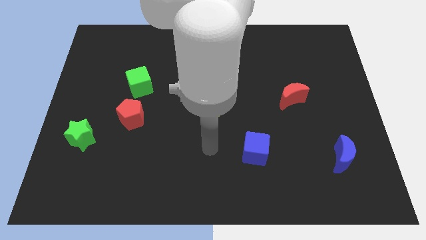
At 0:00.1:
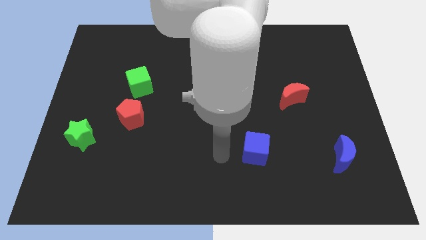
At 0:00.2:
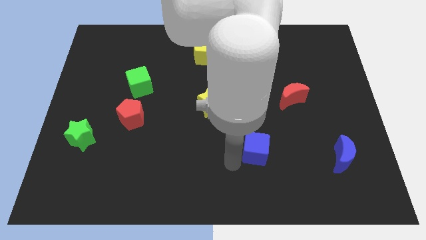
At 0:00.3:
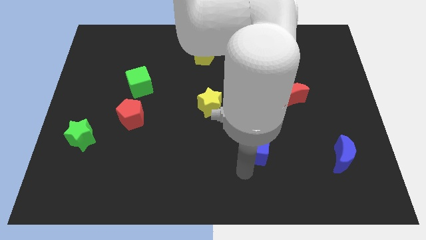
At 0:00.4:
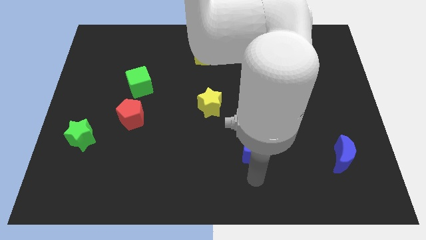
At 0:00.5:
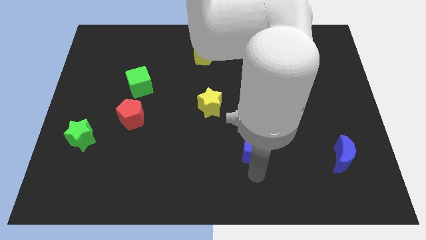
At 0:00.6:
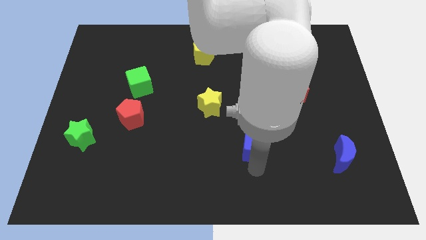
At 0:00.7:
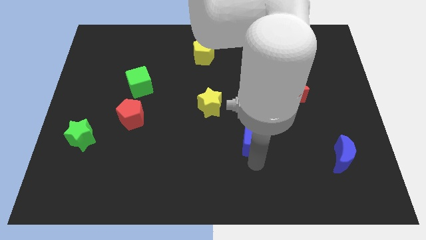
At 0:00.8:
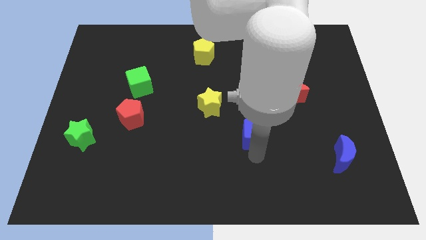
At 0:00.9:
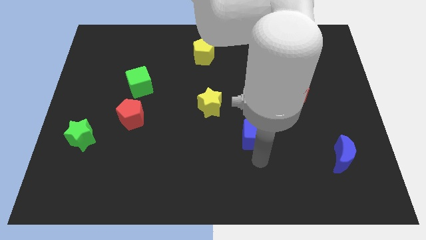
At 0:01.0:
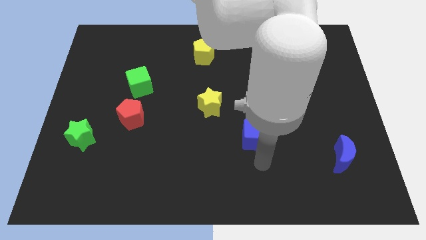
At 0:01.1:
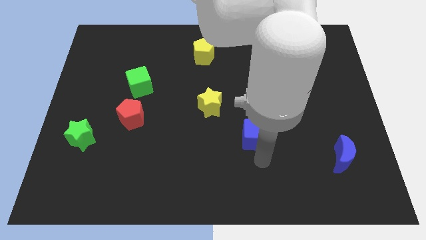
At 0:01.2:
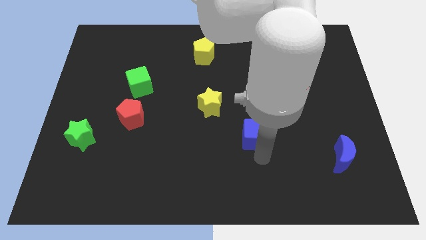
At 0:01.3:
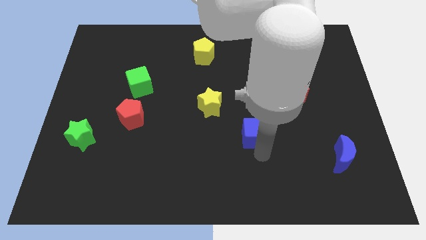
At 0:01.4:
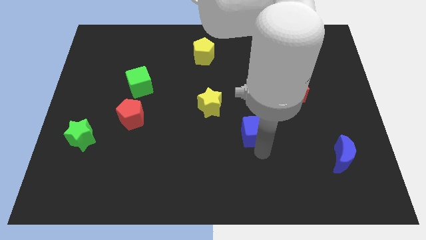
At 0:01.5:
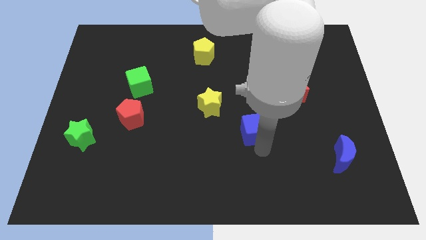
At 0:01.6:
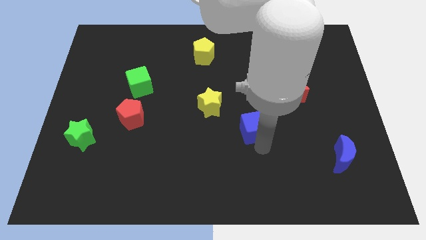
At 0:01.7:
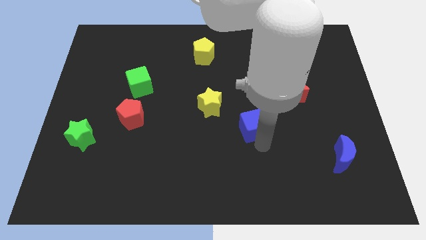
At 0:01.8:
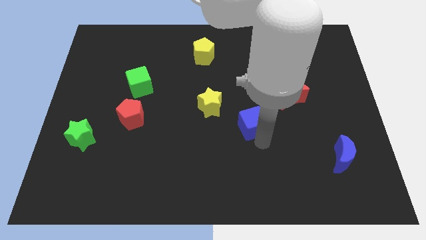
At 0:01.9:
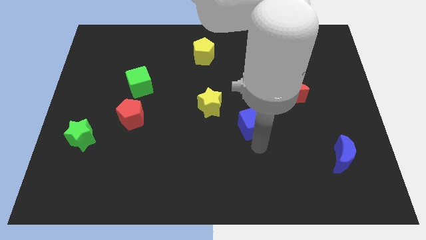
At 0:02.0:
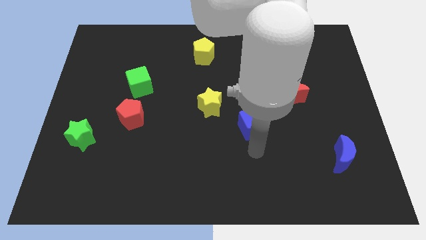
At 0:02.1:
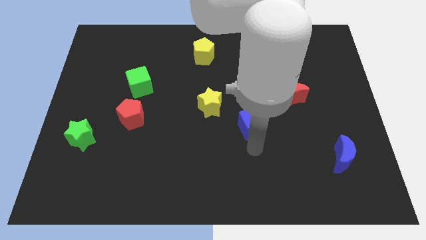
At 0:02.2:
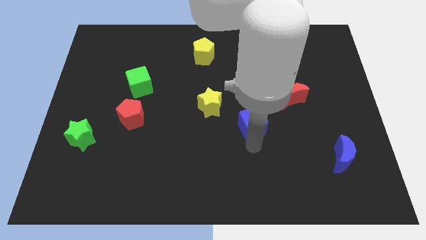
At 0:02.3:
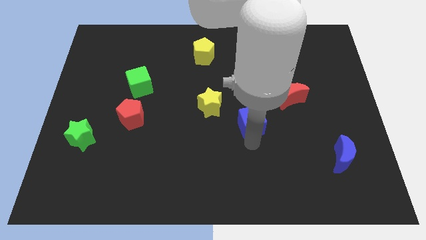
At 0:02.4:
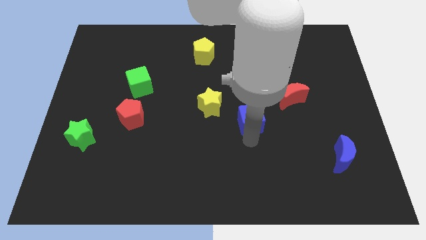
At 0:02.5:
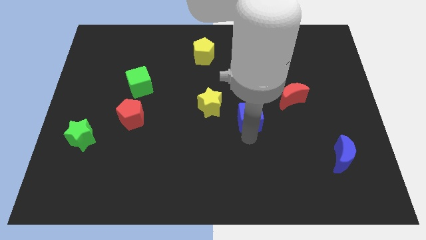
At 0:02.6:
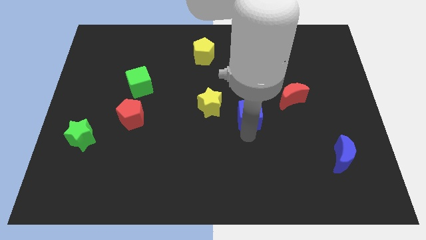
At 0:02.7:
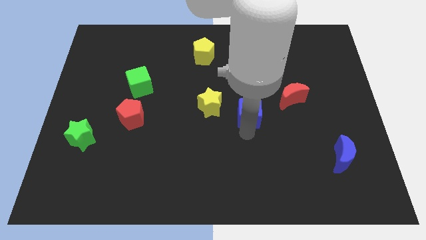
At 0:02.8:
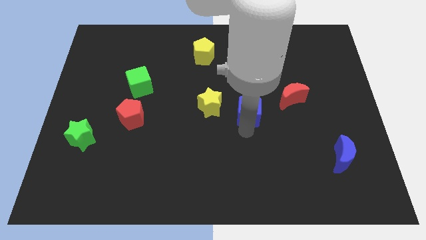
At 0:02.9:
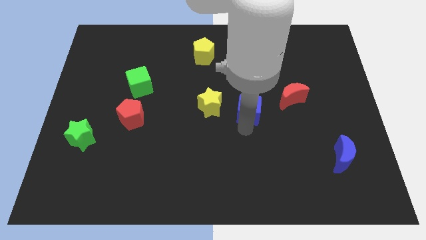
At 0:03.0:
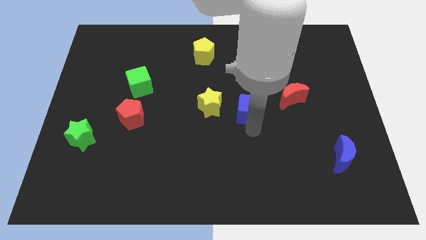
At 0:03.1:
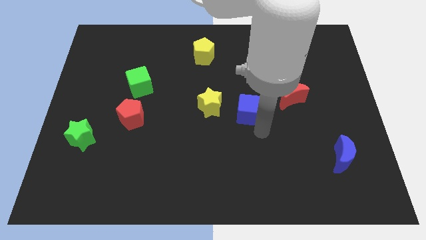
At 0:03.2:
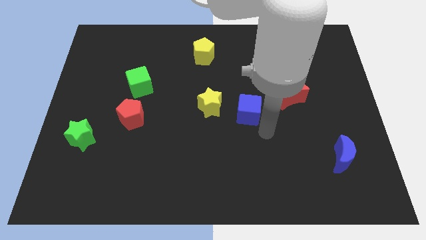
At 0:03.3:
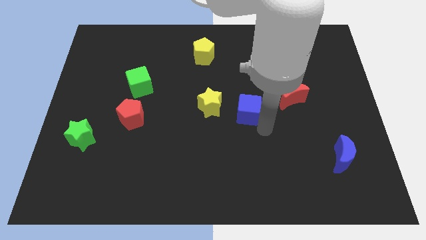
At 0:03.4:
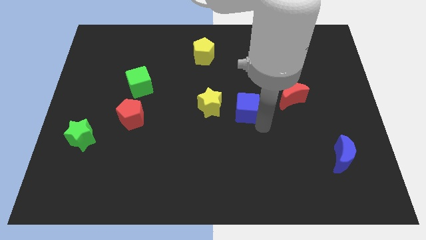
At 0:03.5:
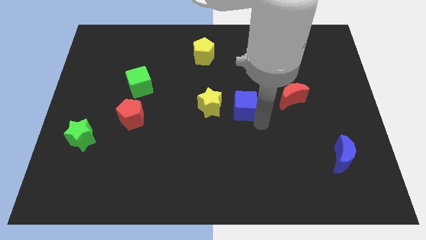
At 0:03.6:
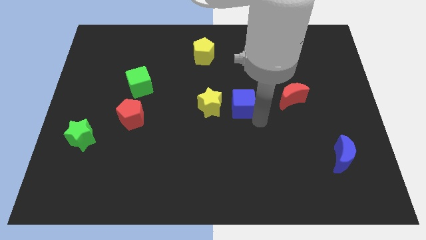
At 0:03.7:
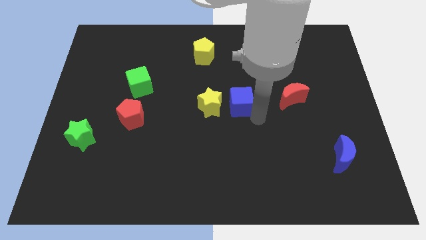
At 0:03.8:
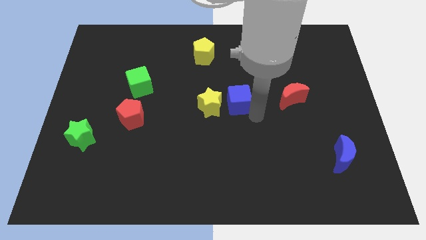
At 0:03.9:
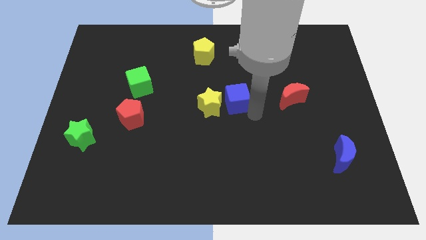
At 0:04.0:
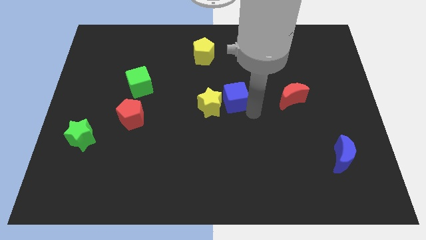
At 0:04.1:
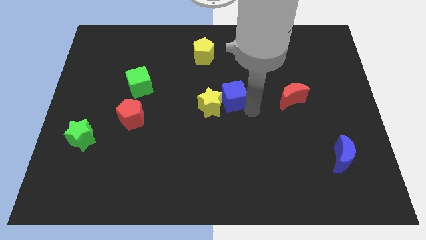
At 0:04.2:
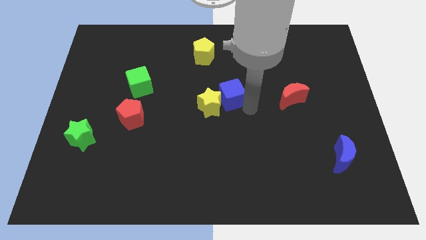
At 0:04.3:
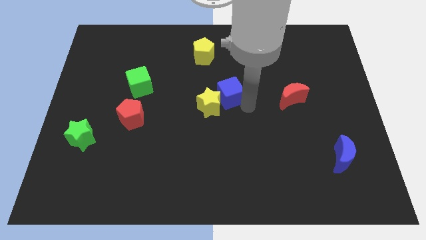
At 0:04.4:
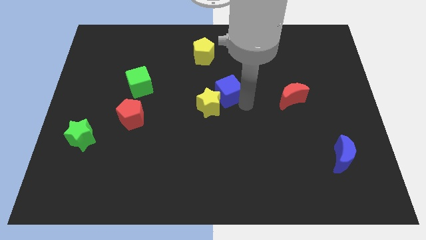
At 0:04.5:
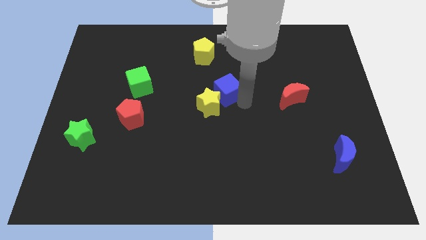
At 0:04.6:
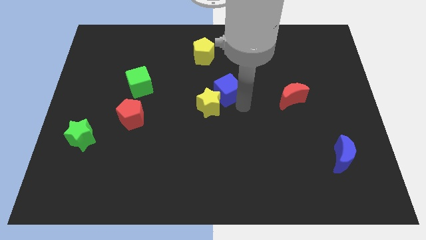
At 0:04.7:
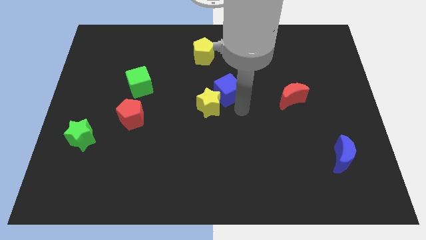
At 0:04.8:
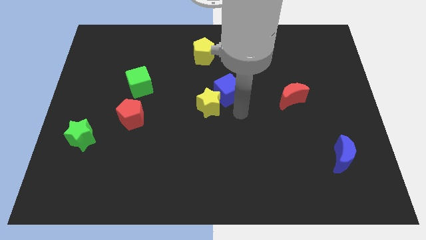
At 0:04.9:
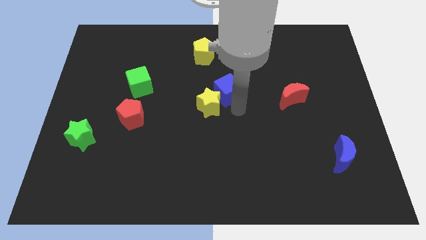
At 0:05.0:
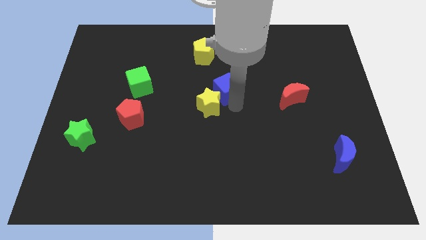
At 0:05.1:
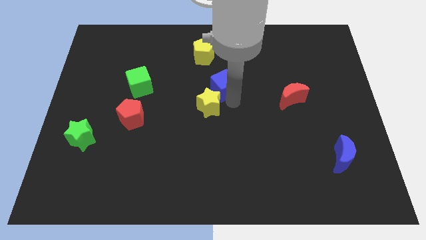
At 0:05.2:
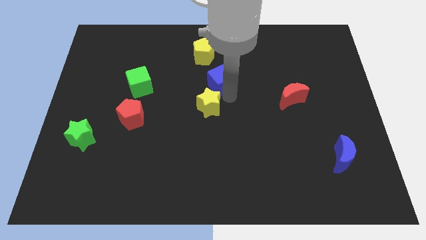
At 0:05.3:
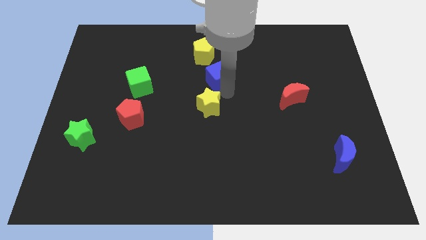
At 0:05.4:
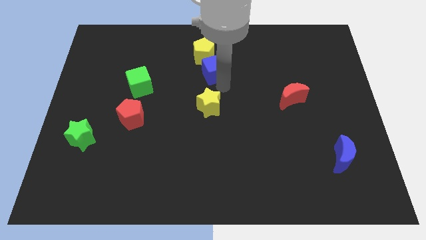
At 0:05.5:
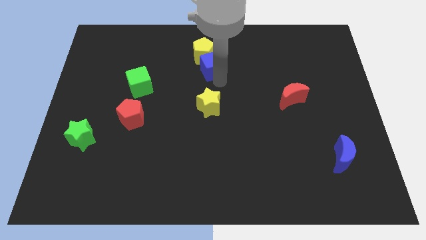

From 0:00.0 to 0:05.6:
push the blue cube towards the yellow pentagon

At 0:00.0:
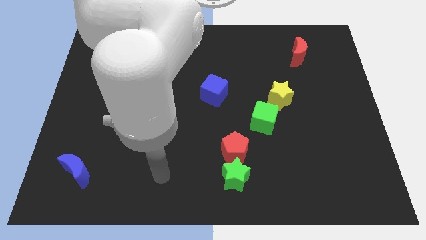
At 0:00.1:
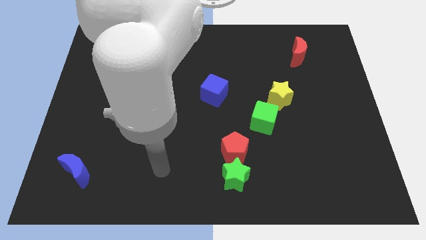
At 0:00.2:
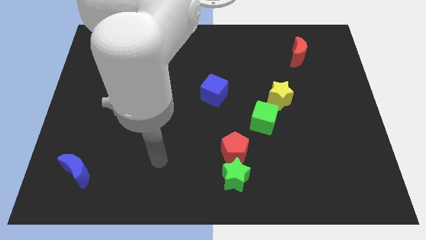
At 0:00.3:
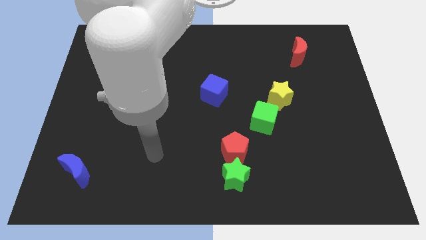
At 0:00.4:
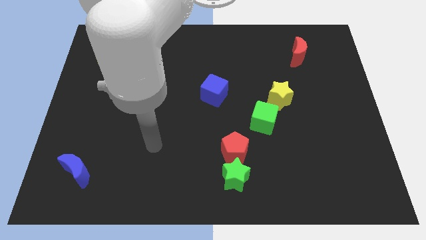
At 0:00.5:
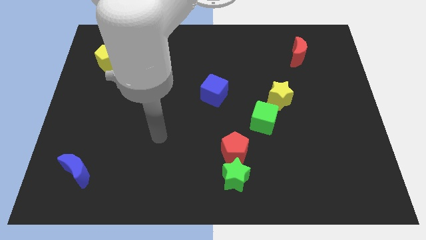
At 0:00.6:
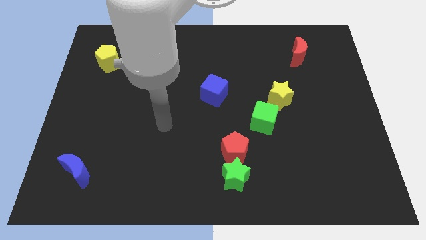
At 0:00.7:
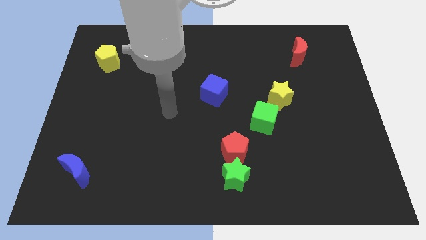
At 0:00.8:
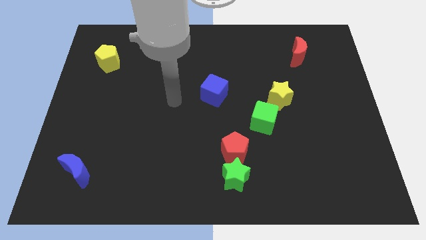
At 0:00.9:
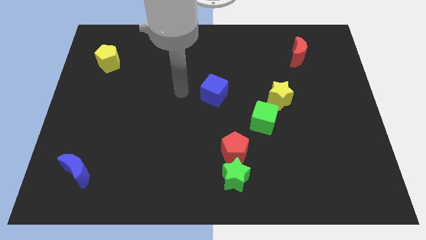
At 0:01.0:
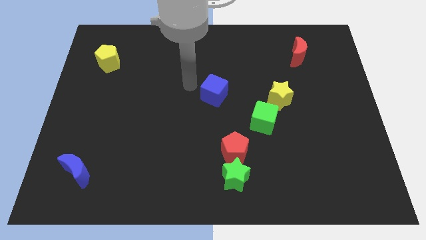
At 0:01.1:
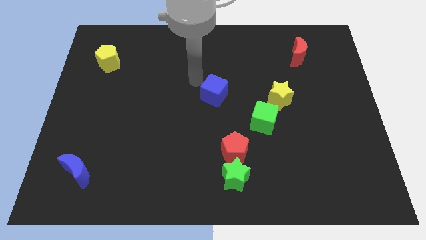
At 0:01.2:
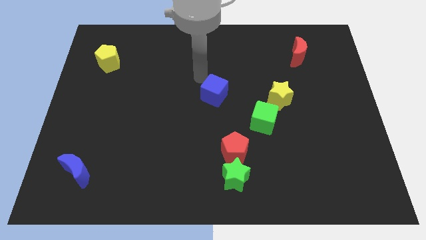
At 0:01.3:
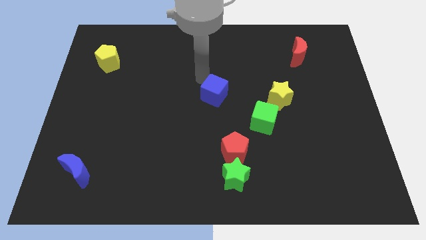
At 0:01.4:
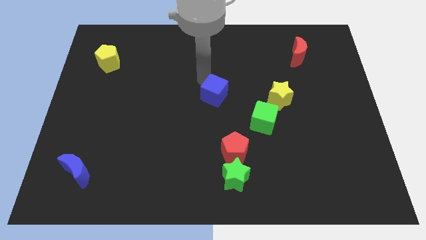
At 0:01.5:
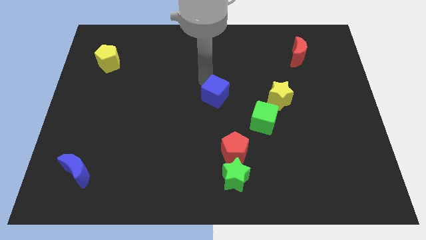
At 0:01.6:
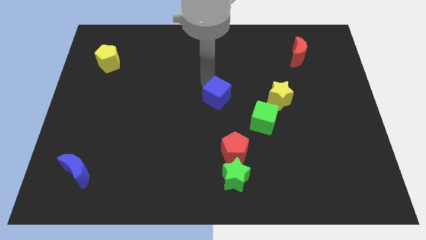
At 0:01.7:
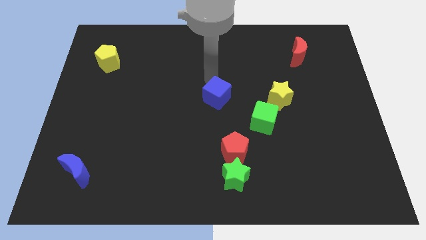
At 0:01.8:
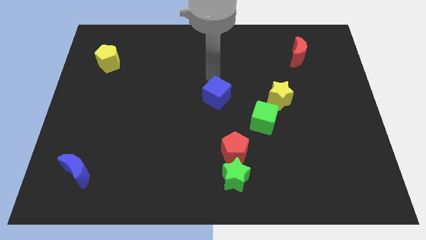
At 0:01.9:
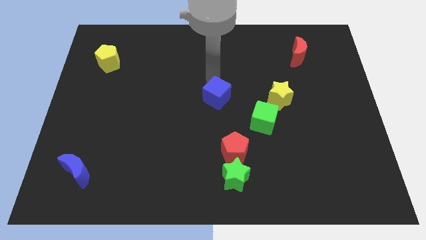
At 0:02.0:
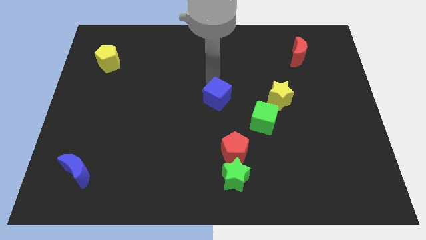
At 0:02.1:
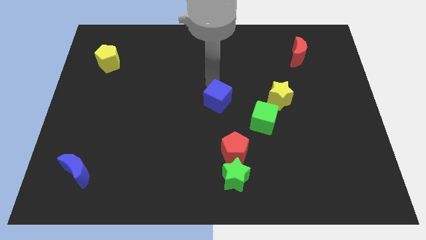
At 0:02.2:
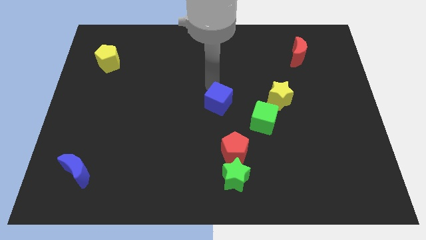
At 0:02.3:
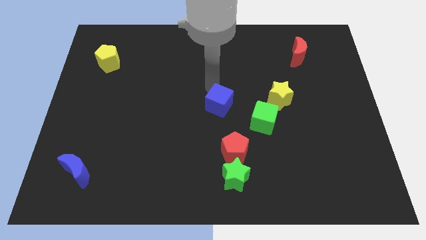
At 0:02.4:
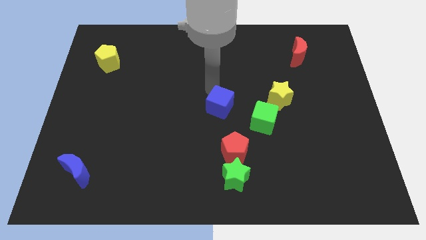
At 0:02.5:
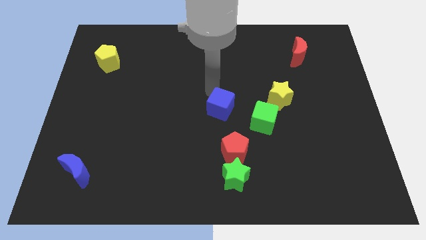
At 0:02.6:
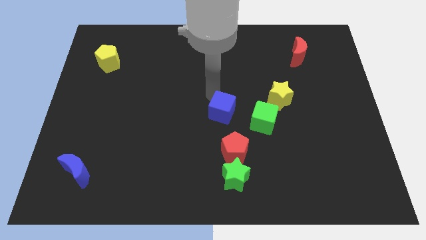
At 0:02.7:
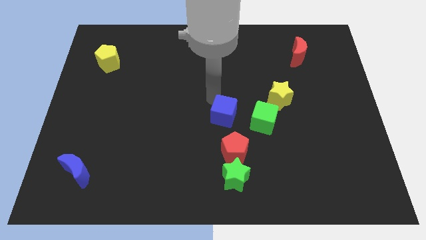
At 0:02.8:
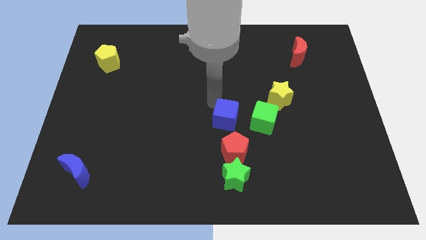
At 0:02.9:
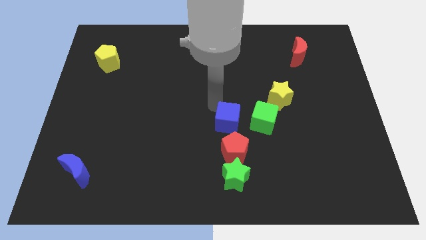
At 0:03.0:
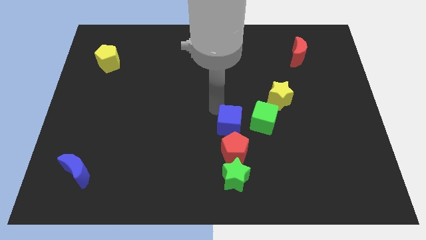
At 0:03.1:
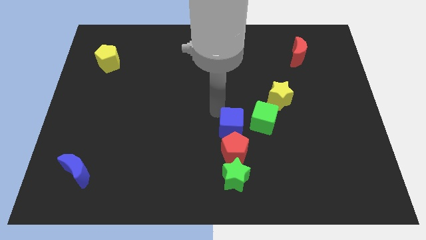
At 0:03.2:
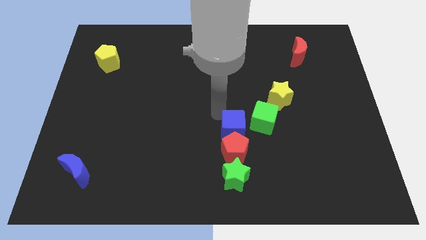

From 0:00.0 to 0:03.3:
slide the blue cube next to the red pentagon
